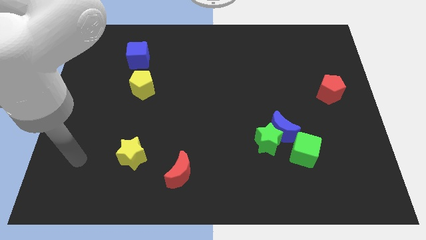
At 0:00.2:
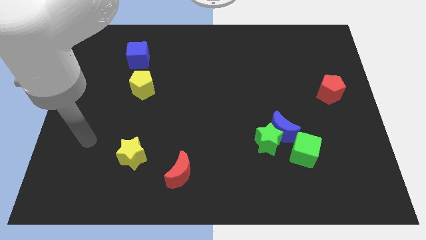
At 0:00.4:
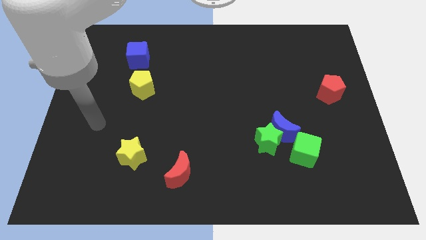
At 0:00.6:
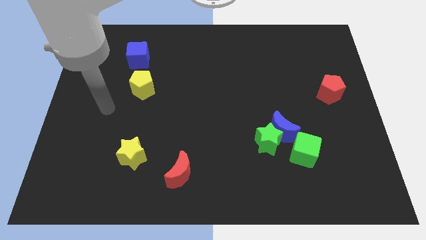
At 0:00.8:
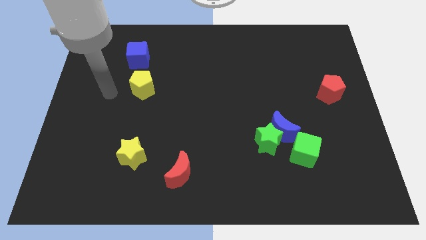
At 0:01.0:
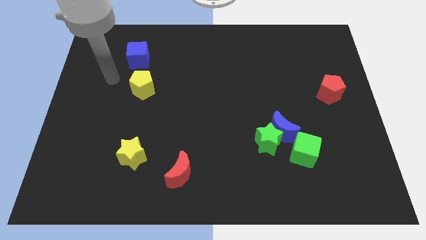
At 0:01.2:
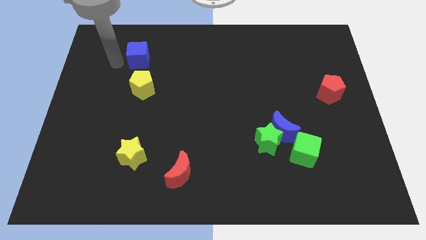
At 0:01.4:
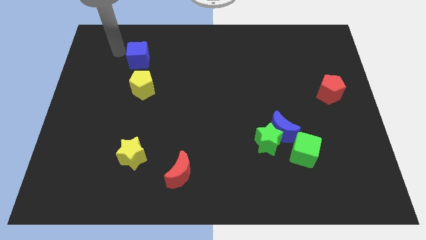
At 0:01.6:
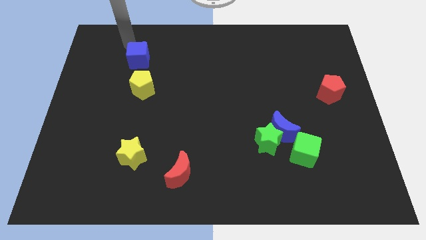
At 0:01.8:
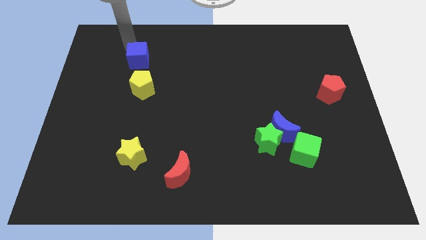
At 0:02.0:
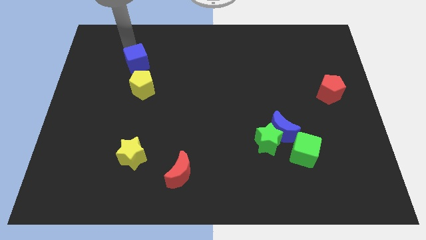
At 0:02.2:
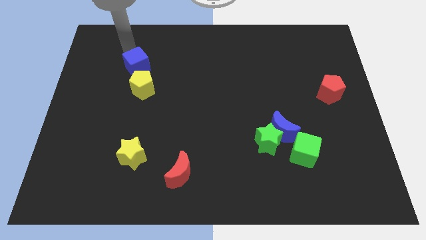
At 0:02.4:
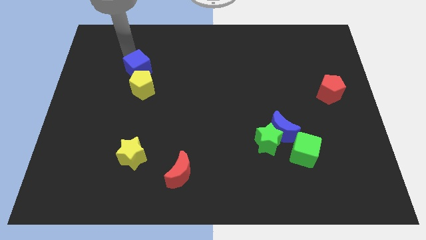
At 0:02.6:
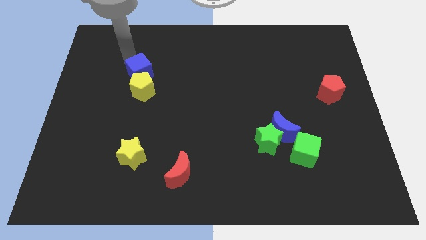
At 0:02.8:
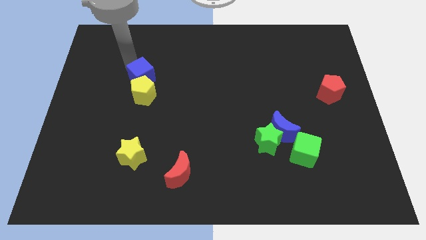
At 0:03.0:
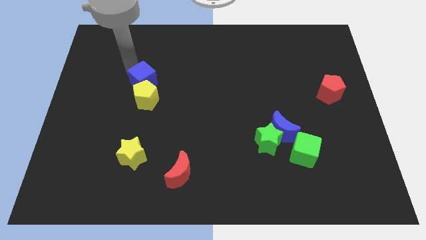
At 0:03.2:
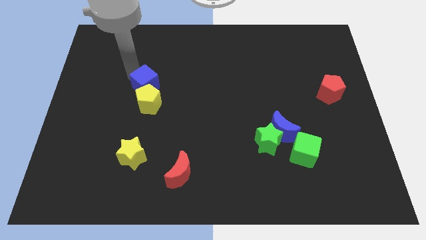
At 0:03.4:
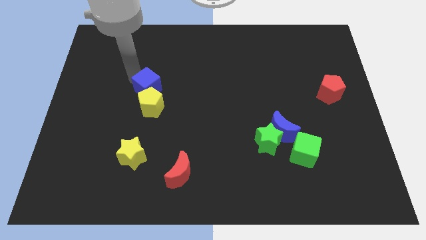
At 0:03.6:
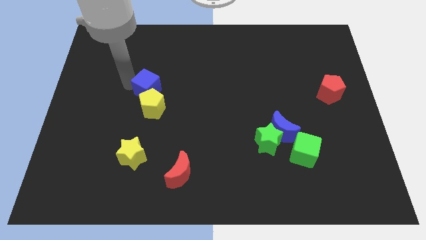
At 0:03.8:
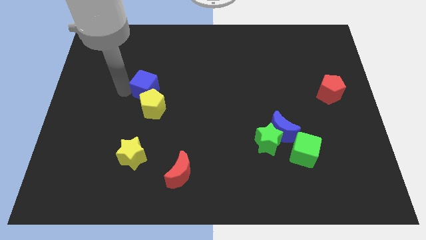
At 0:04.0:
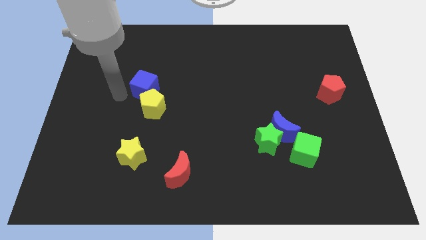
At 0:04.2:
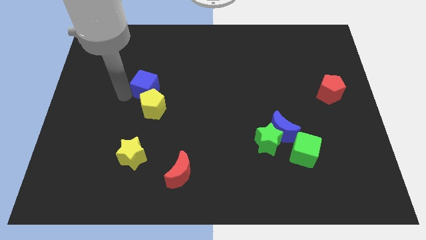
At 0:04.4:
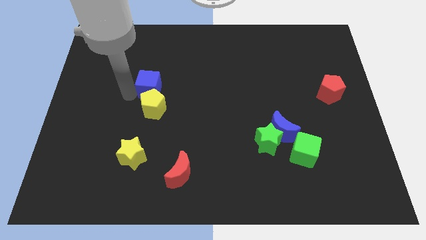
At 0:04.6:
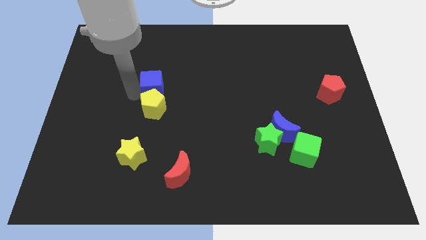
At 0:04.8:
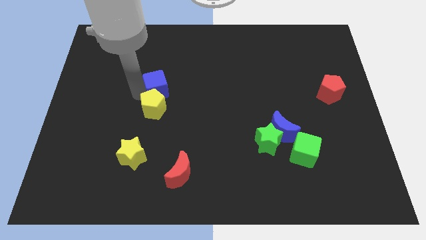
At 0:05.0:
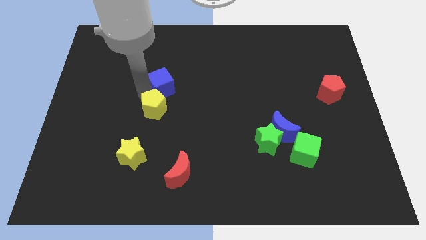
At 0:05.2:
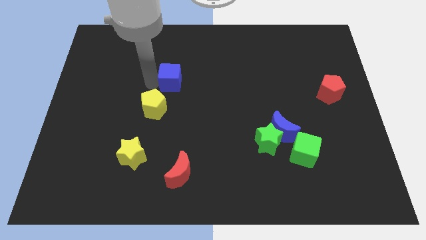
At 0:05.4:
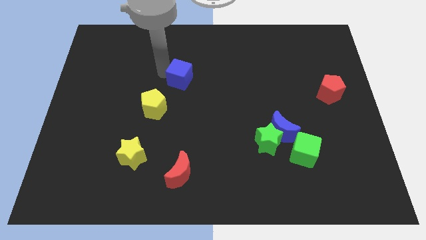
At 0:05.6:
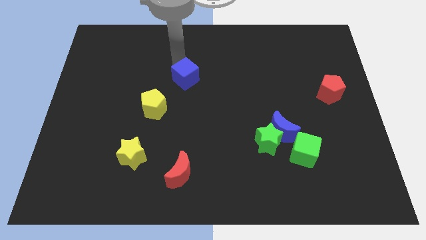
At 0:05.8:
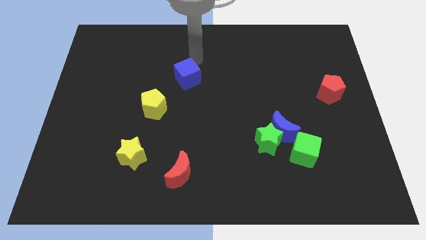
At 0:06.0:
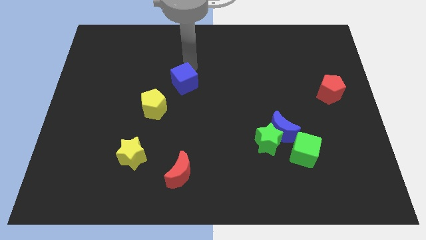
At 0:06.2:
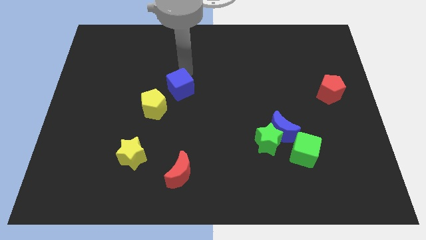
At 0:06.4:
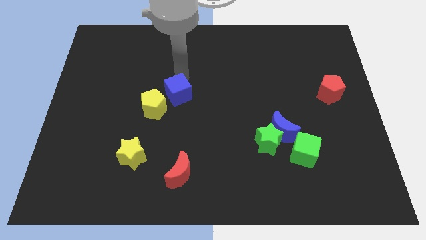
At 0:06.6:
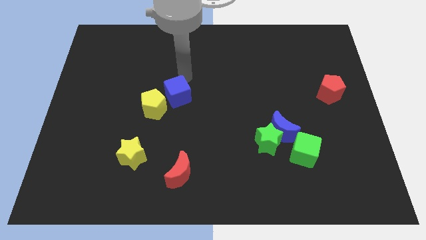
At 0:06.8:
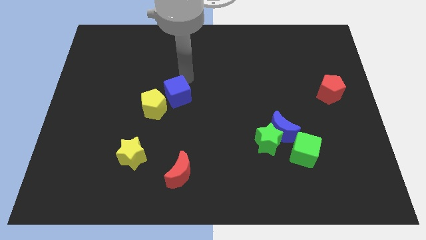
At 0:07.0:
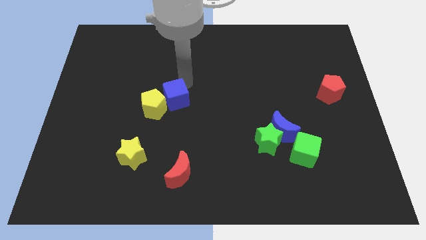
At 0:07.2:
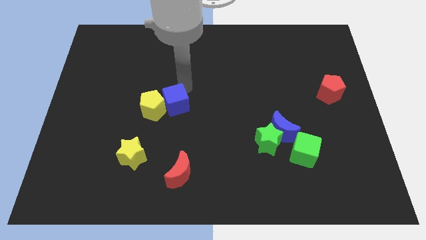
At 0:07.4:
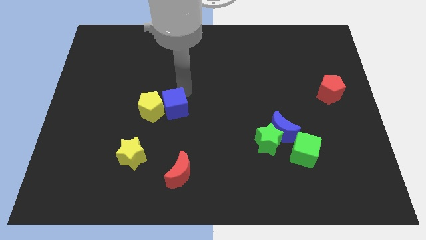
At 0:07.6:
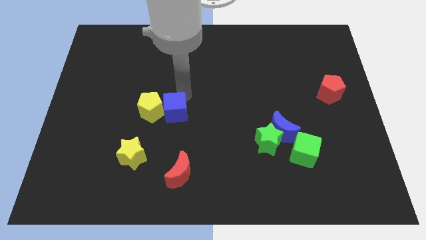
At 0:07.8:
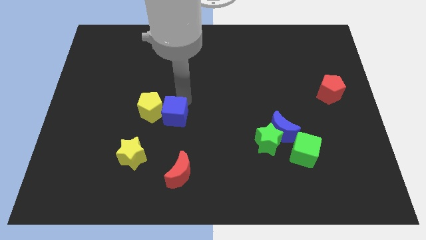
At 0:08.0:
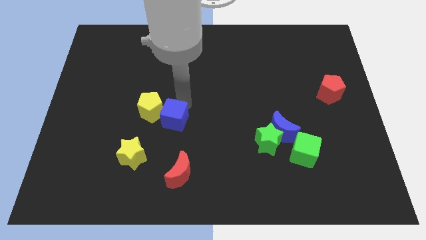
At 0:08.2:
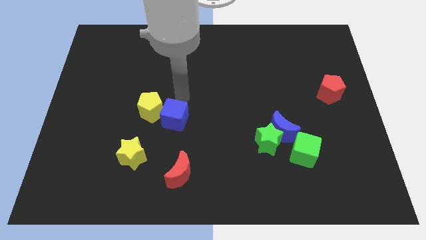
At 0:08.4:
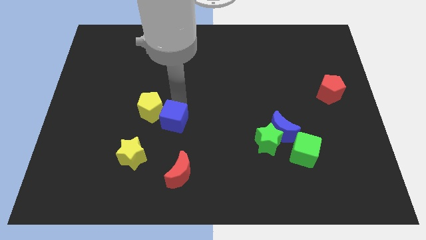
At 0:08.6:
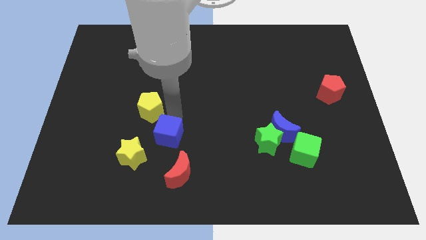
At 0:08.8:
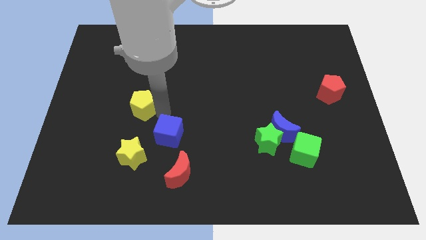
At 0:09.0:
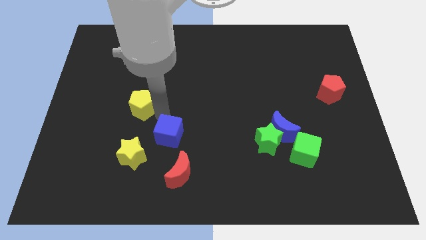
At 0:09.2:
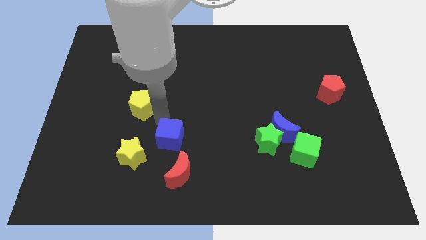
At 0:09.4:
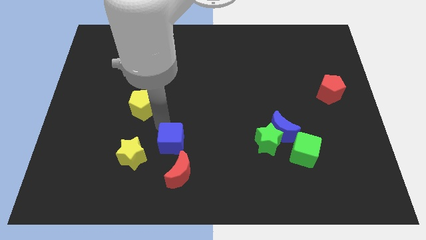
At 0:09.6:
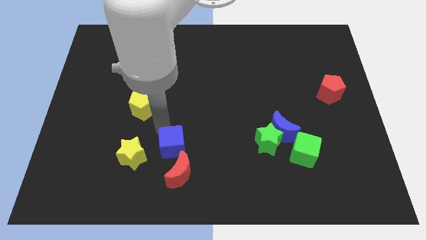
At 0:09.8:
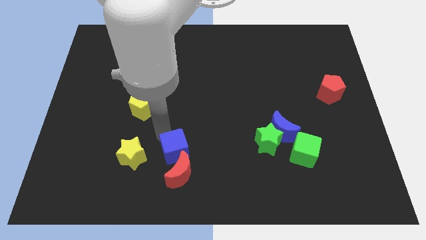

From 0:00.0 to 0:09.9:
put the blue cube next to the red moon

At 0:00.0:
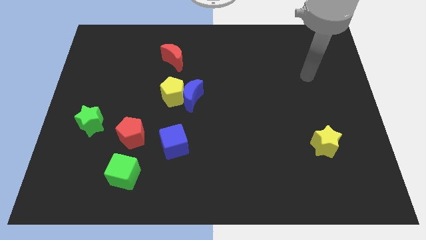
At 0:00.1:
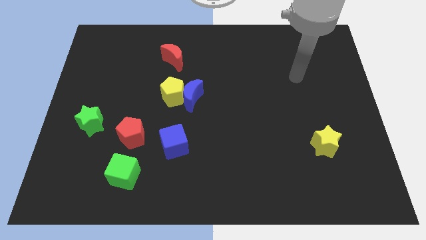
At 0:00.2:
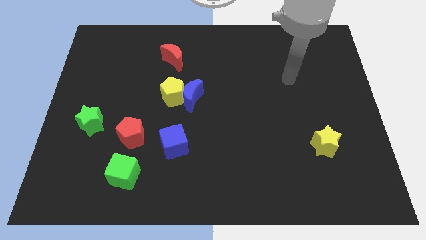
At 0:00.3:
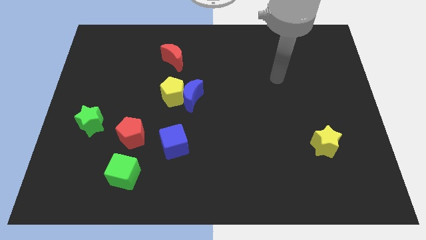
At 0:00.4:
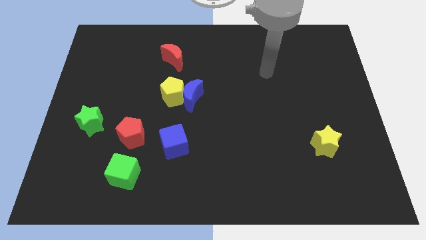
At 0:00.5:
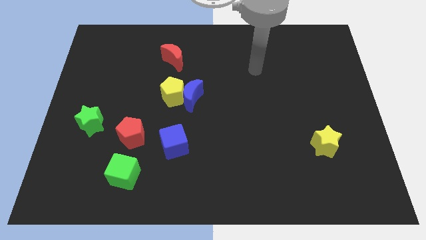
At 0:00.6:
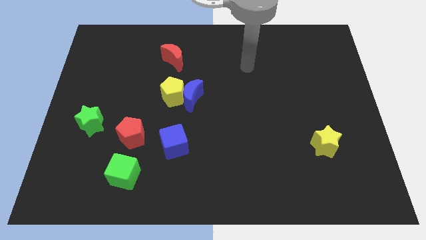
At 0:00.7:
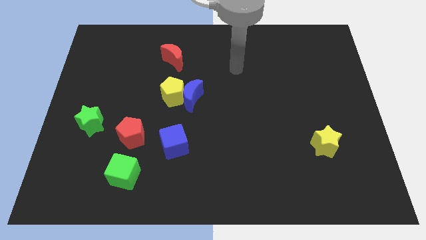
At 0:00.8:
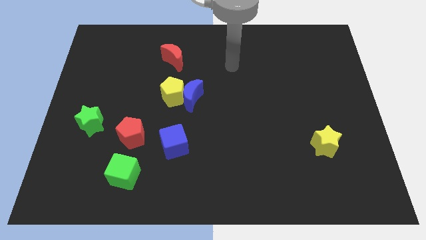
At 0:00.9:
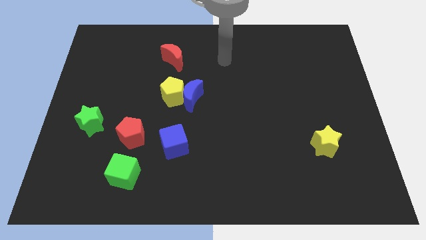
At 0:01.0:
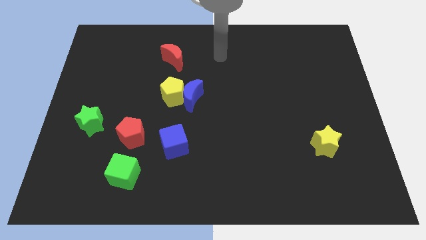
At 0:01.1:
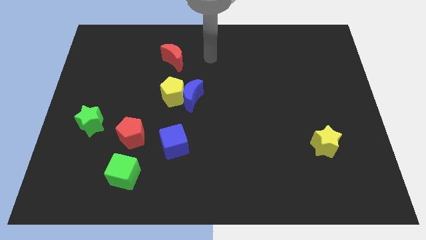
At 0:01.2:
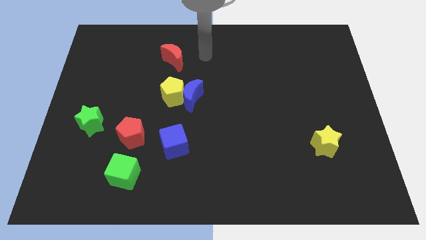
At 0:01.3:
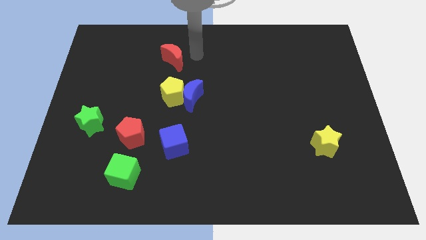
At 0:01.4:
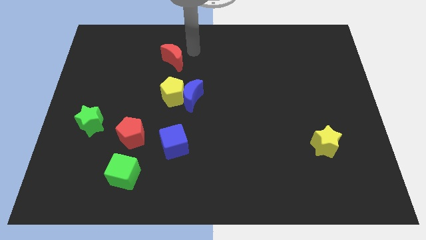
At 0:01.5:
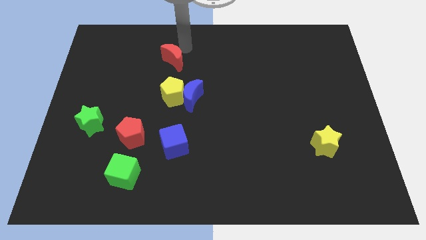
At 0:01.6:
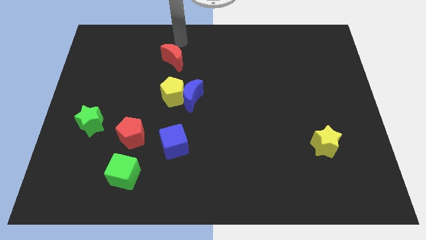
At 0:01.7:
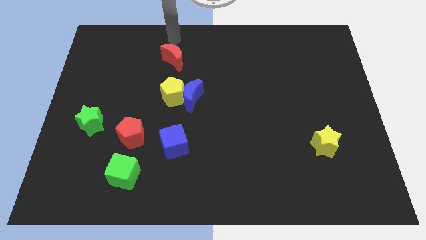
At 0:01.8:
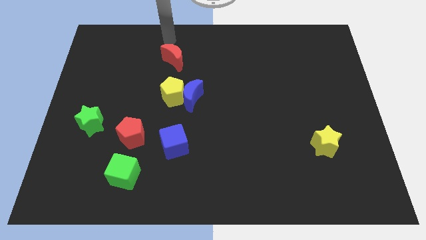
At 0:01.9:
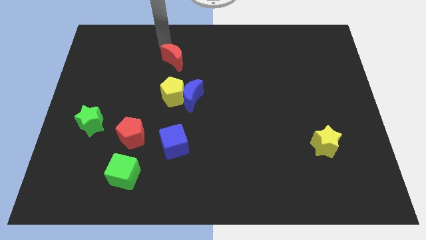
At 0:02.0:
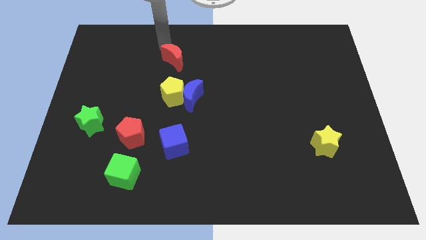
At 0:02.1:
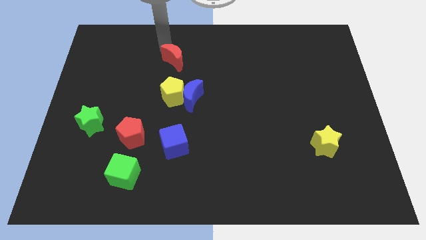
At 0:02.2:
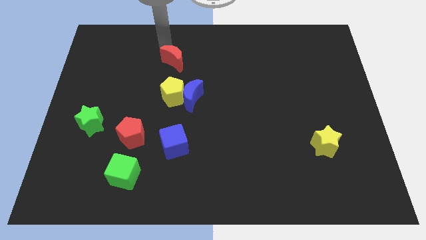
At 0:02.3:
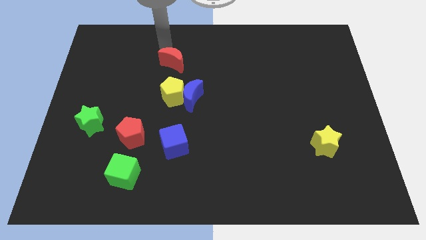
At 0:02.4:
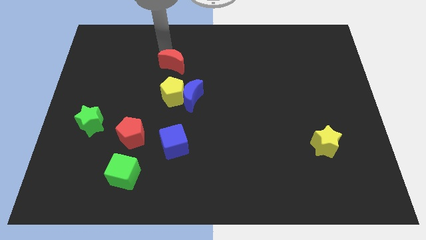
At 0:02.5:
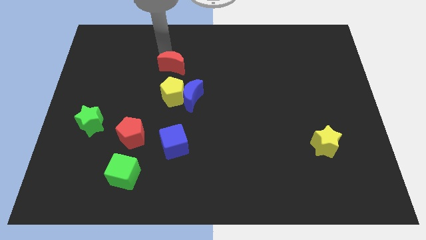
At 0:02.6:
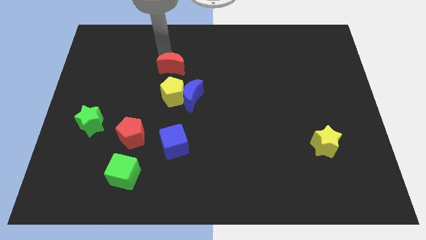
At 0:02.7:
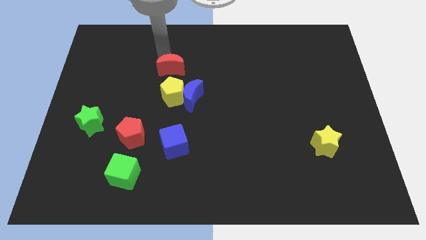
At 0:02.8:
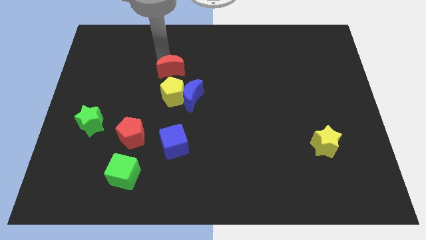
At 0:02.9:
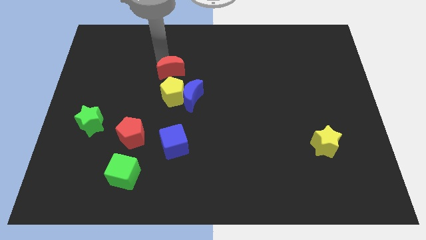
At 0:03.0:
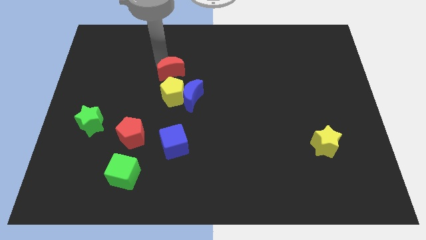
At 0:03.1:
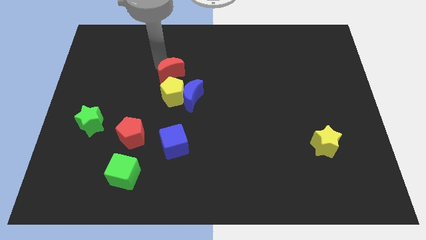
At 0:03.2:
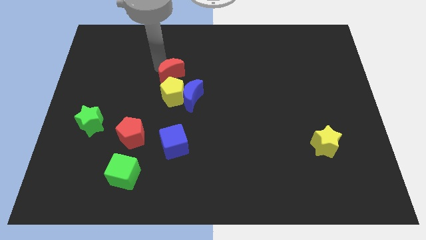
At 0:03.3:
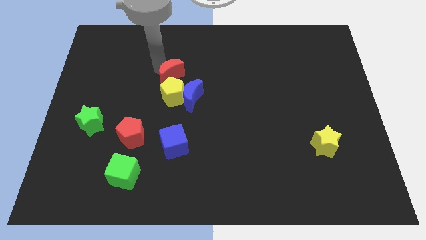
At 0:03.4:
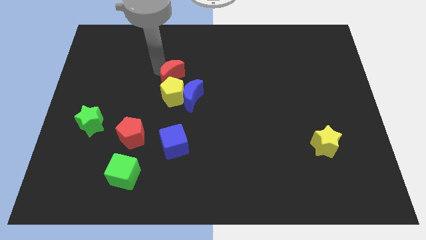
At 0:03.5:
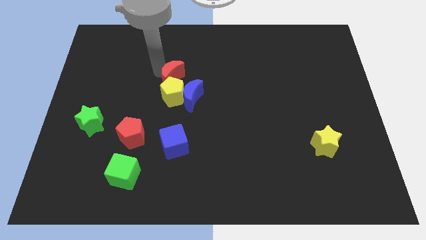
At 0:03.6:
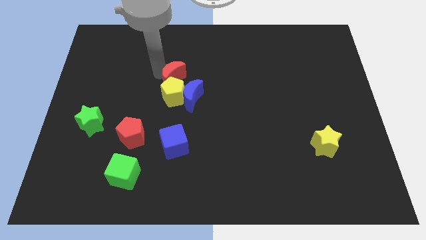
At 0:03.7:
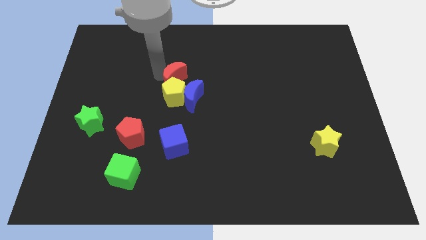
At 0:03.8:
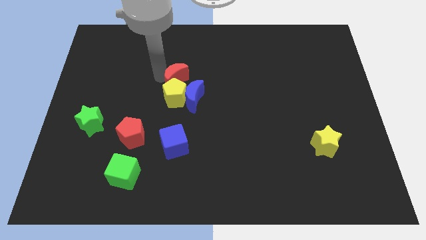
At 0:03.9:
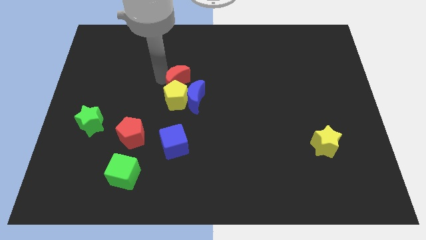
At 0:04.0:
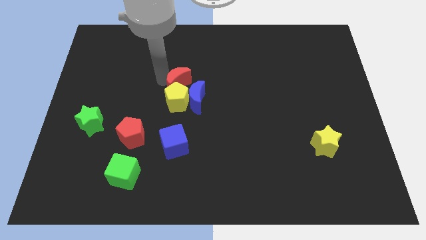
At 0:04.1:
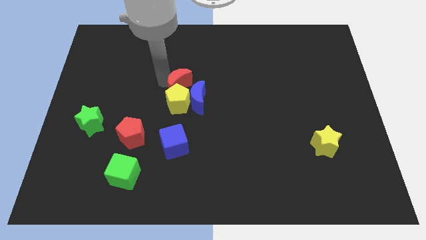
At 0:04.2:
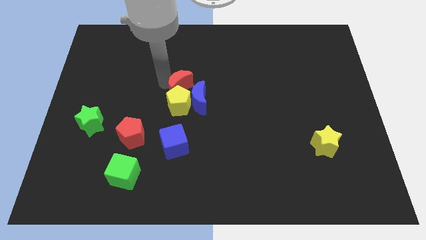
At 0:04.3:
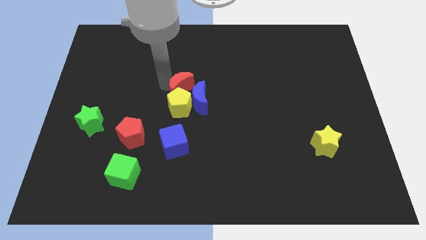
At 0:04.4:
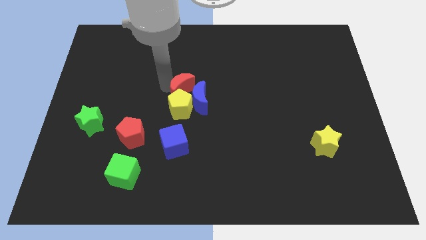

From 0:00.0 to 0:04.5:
slide the red moon close to the blue moon
